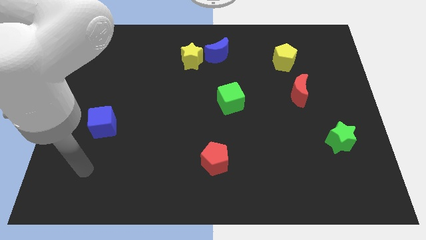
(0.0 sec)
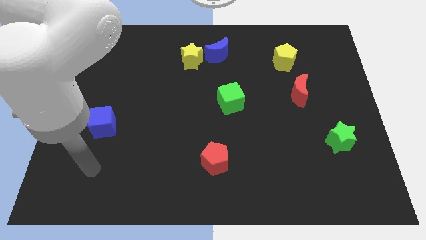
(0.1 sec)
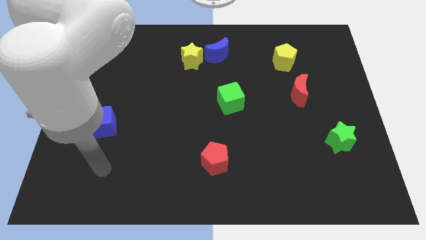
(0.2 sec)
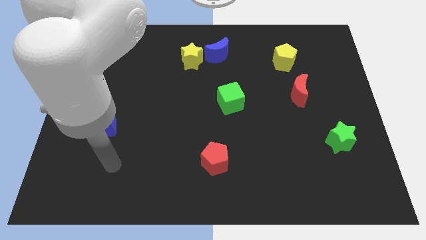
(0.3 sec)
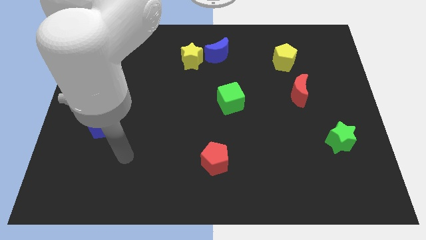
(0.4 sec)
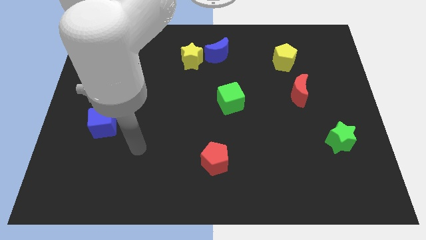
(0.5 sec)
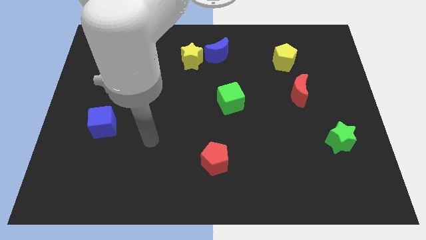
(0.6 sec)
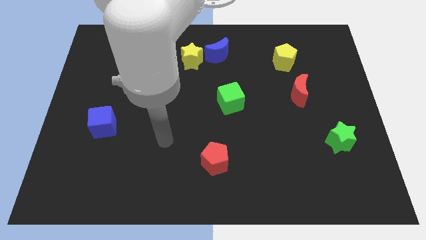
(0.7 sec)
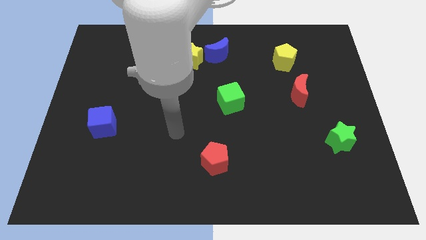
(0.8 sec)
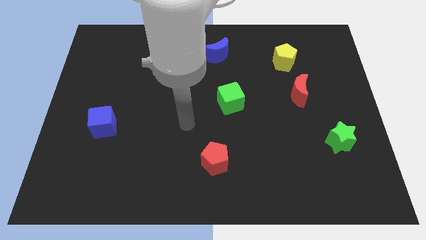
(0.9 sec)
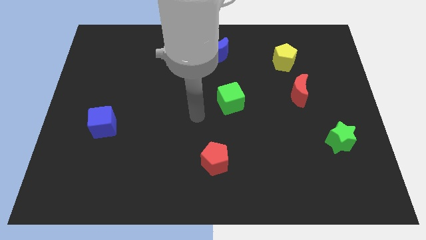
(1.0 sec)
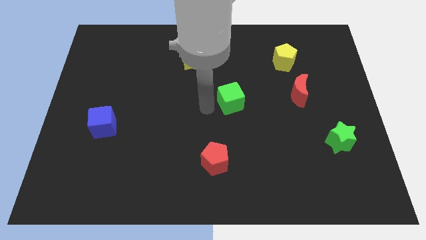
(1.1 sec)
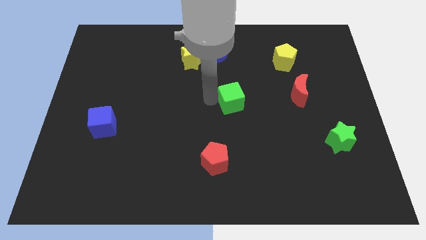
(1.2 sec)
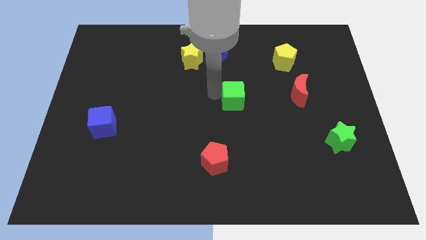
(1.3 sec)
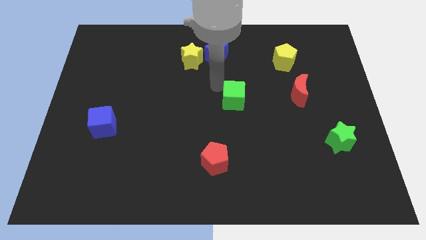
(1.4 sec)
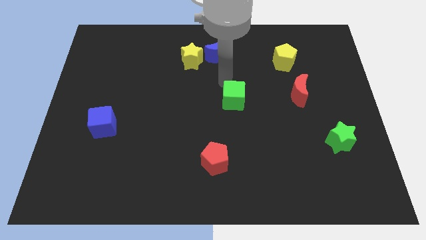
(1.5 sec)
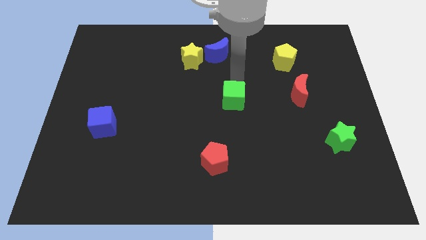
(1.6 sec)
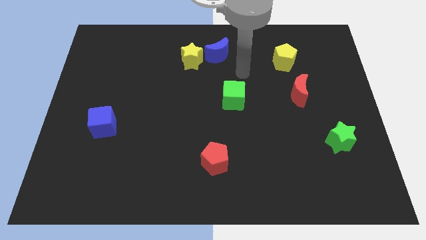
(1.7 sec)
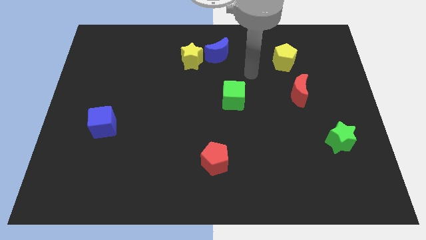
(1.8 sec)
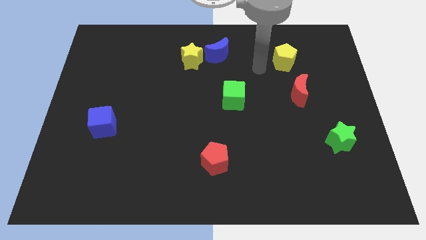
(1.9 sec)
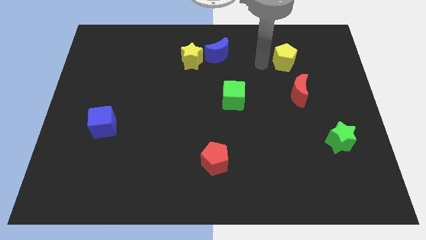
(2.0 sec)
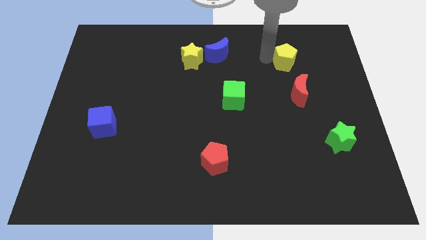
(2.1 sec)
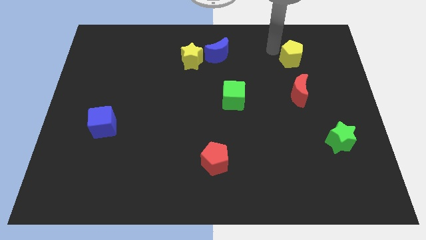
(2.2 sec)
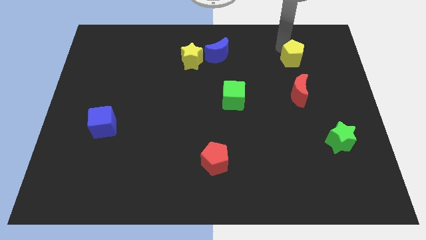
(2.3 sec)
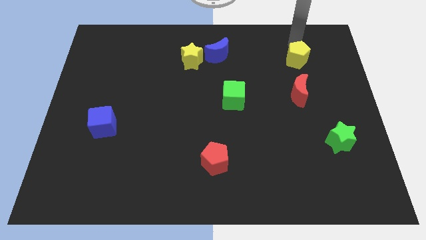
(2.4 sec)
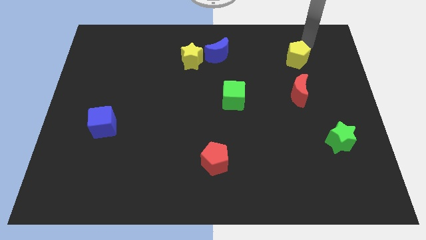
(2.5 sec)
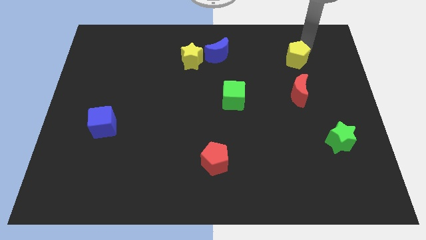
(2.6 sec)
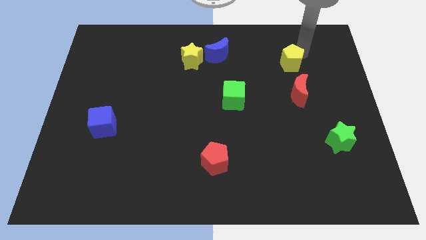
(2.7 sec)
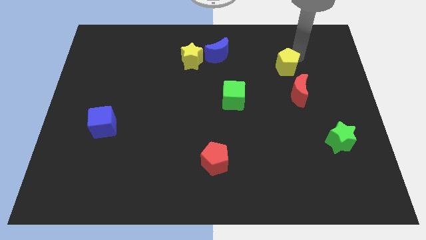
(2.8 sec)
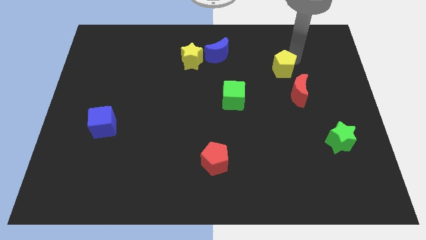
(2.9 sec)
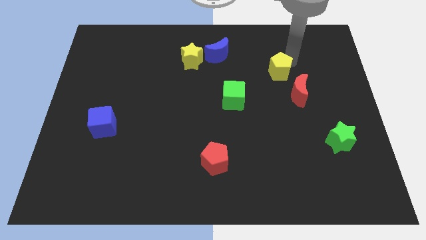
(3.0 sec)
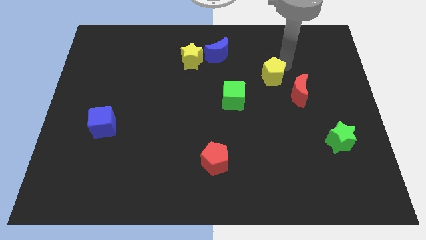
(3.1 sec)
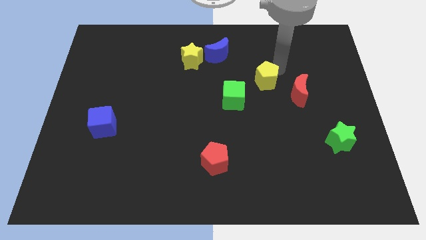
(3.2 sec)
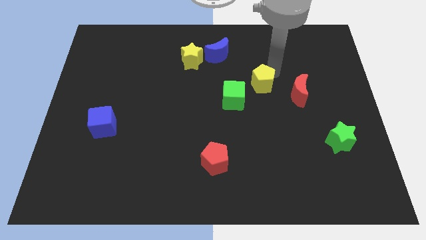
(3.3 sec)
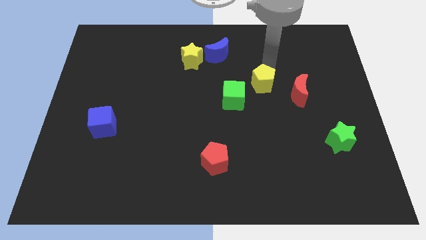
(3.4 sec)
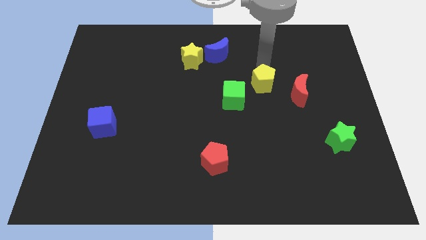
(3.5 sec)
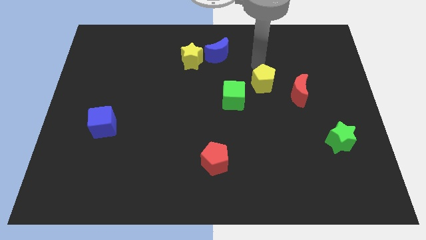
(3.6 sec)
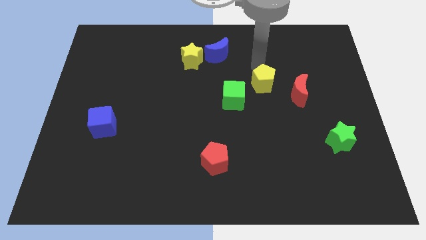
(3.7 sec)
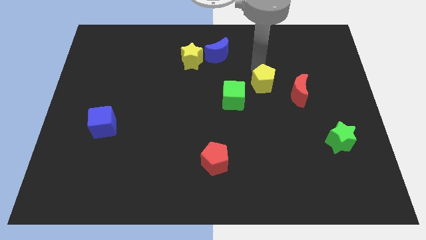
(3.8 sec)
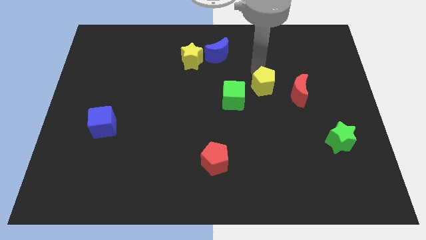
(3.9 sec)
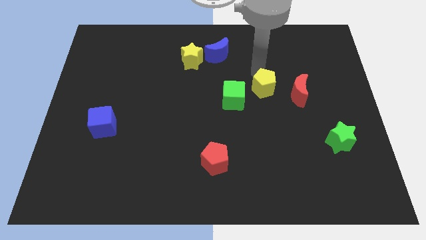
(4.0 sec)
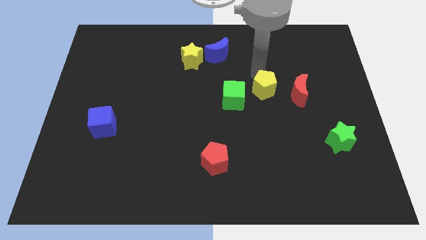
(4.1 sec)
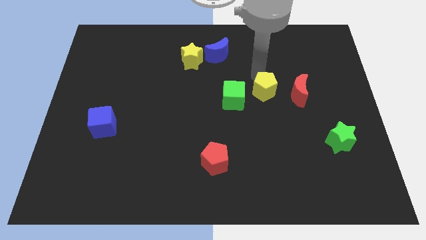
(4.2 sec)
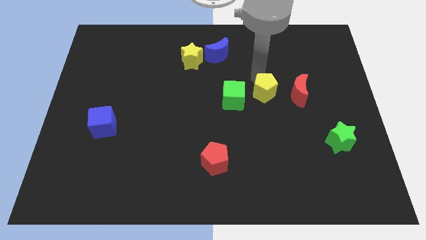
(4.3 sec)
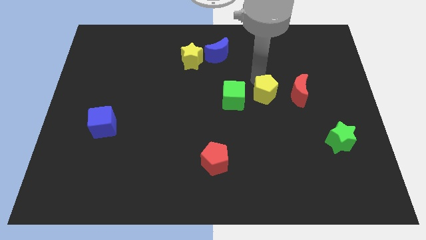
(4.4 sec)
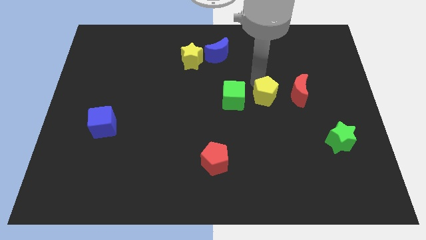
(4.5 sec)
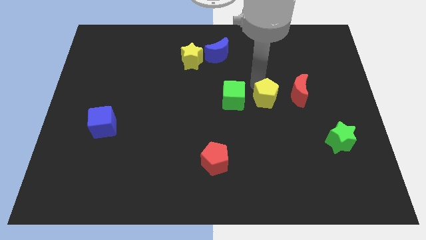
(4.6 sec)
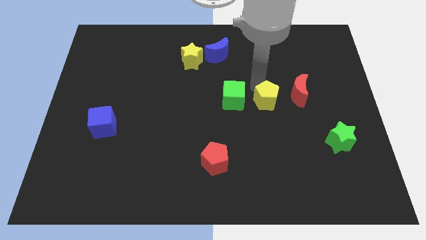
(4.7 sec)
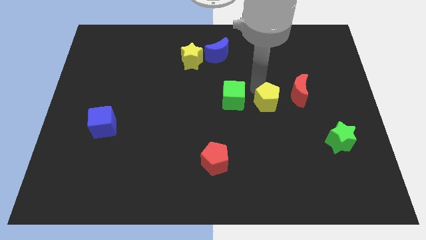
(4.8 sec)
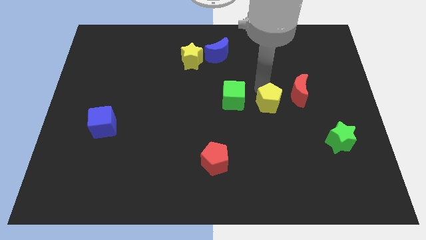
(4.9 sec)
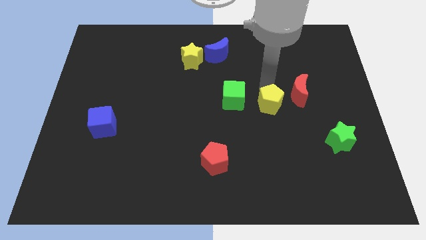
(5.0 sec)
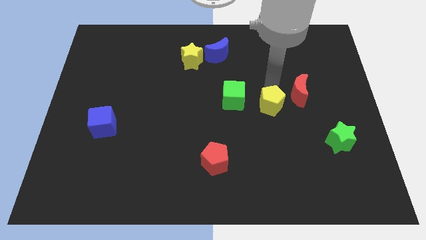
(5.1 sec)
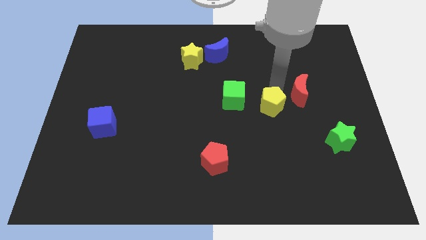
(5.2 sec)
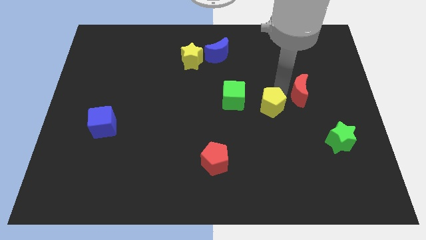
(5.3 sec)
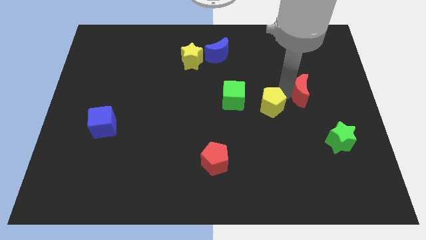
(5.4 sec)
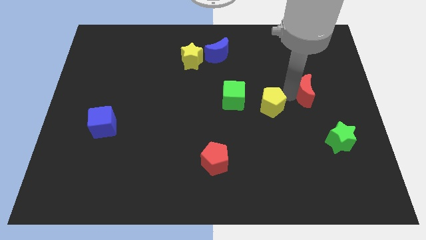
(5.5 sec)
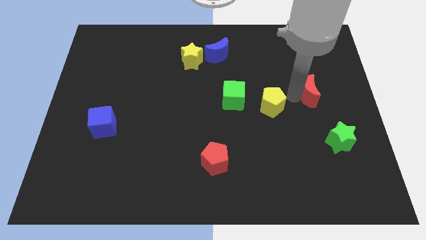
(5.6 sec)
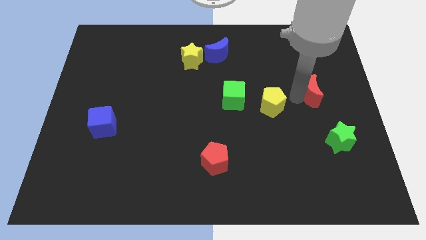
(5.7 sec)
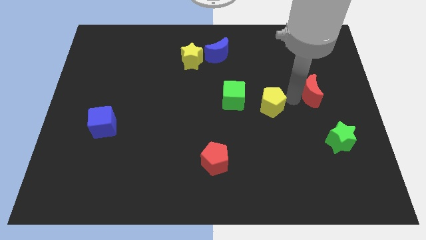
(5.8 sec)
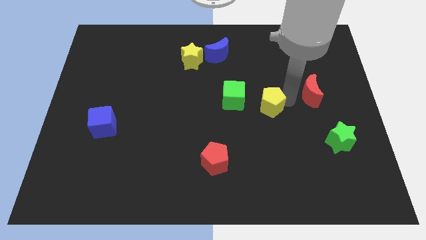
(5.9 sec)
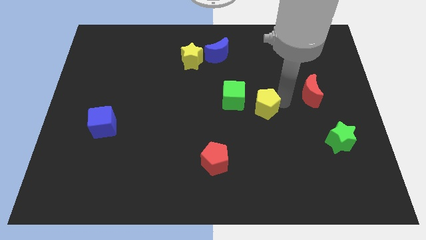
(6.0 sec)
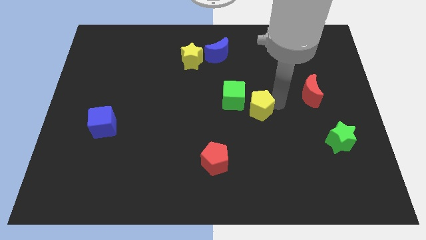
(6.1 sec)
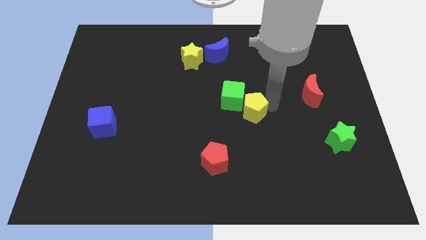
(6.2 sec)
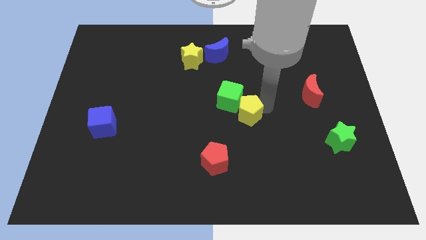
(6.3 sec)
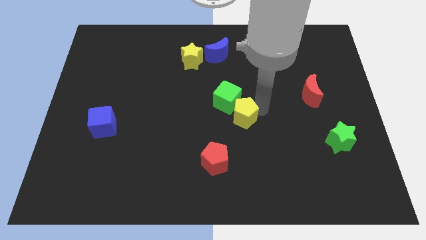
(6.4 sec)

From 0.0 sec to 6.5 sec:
move the yellow pentagon downwards and to the left diagonally

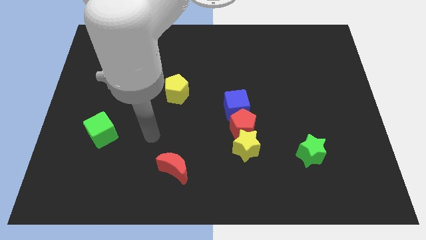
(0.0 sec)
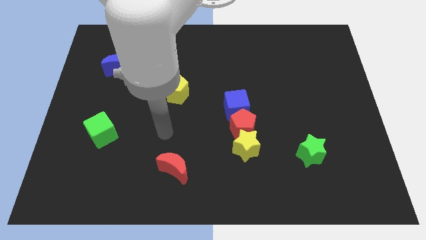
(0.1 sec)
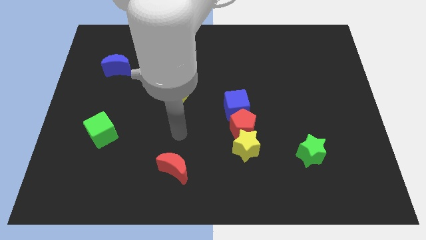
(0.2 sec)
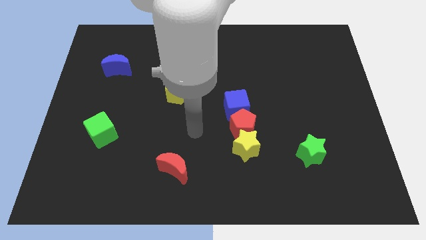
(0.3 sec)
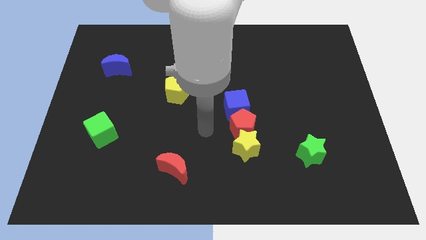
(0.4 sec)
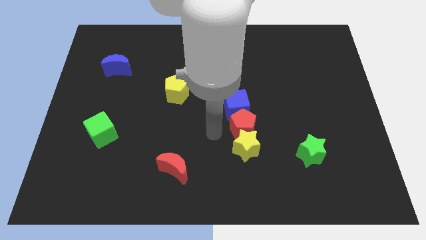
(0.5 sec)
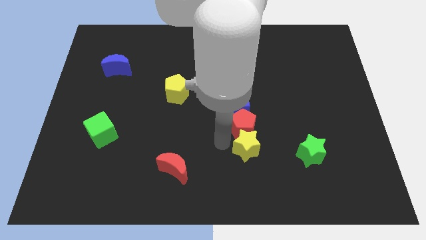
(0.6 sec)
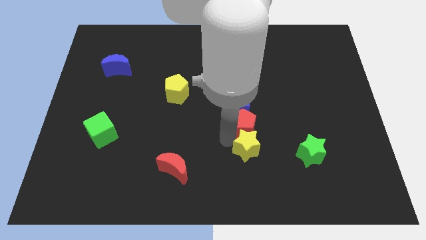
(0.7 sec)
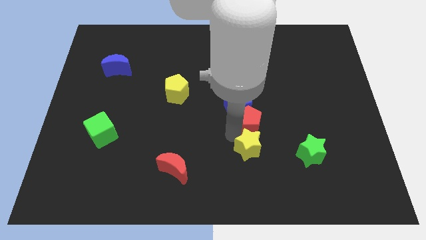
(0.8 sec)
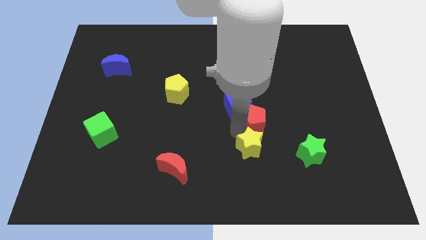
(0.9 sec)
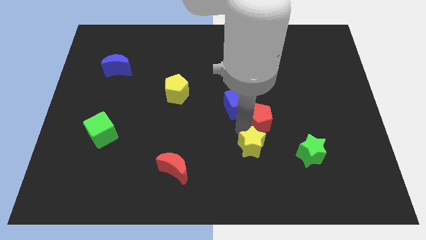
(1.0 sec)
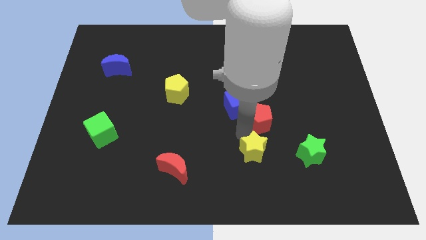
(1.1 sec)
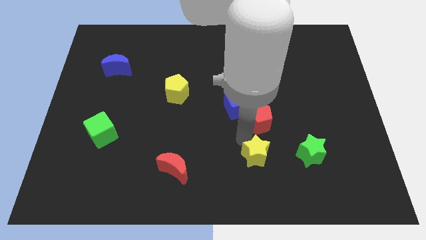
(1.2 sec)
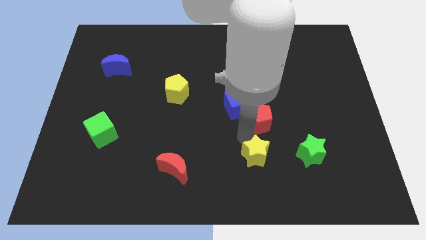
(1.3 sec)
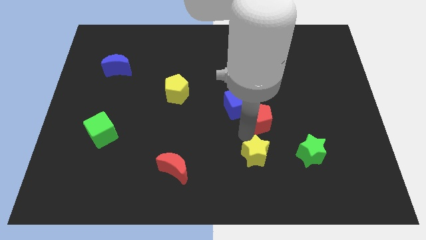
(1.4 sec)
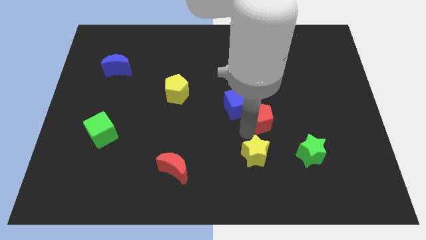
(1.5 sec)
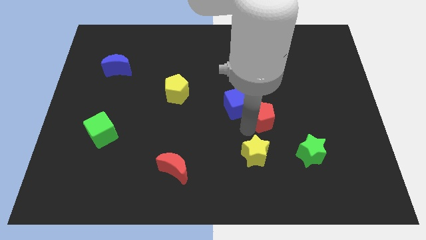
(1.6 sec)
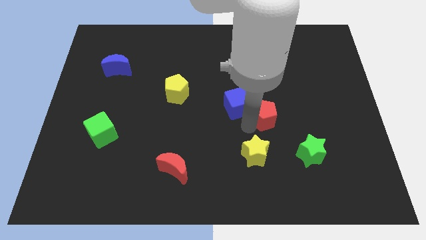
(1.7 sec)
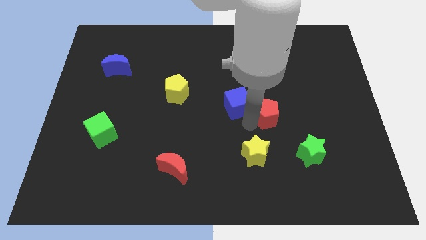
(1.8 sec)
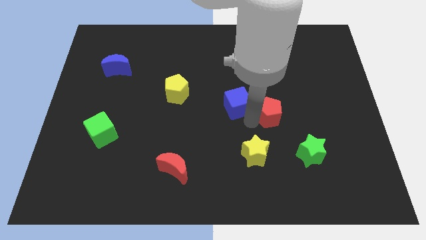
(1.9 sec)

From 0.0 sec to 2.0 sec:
slightly push the red pentagon diagonally upwards and to the right
